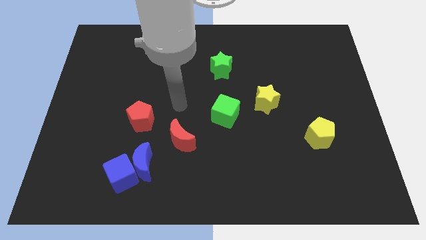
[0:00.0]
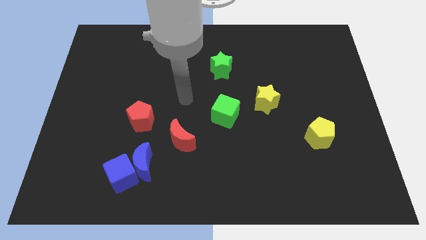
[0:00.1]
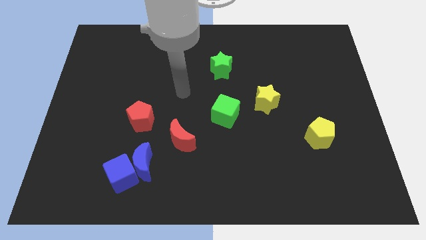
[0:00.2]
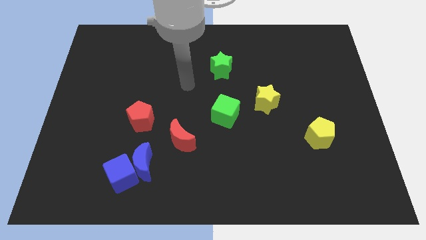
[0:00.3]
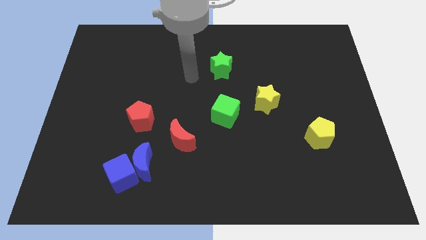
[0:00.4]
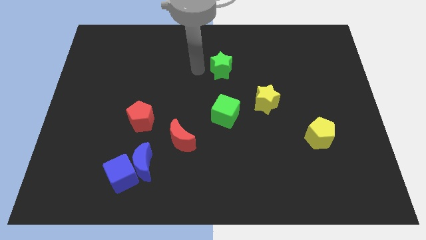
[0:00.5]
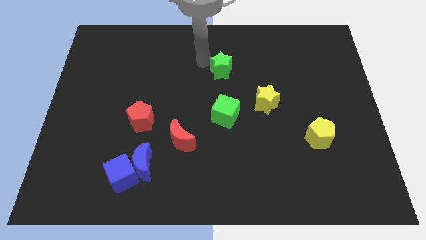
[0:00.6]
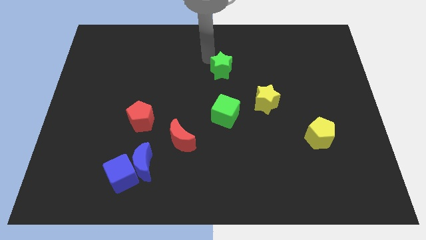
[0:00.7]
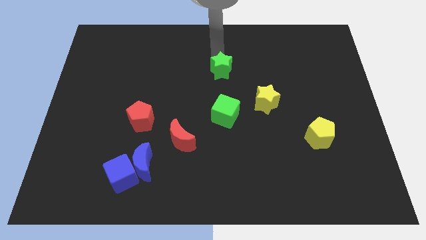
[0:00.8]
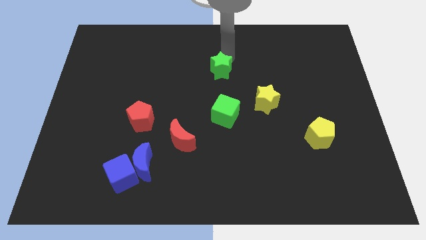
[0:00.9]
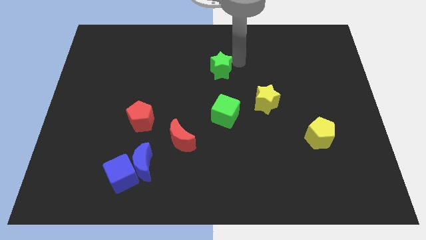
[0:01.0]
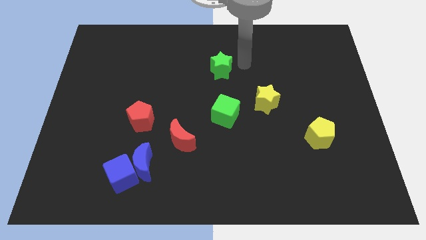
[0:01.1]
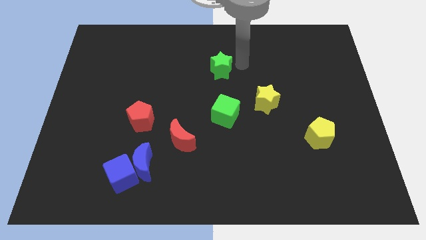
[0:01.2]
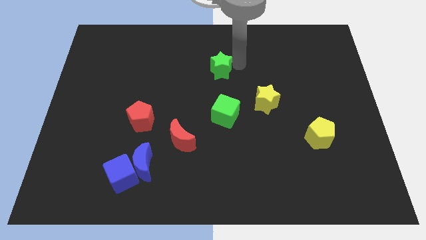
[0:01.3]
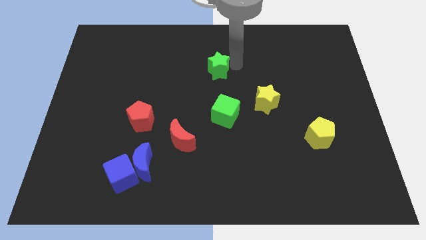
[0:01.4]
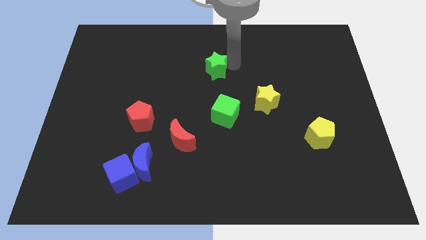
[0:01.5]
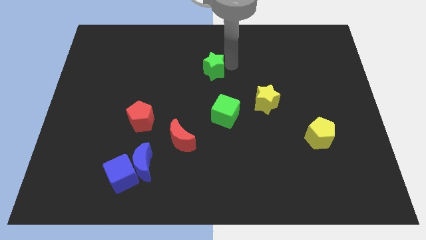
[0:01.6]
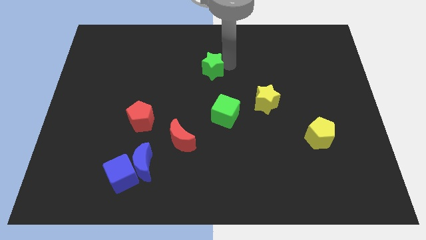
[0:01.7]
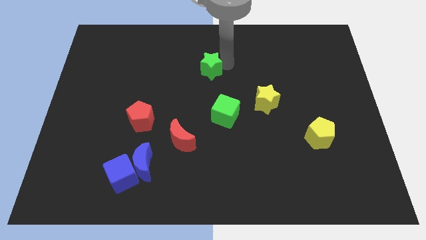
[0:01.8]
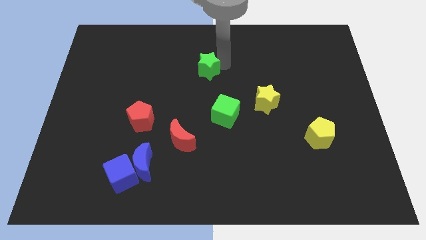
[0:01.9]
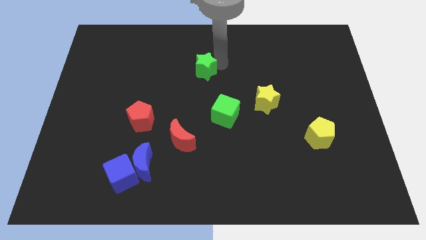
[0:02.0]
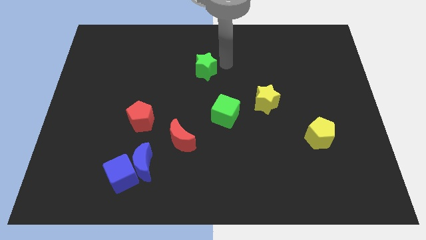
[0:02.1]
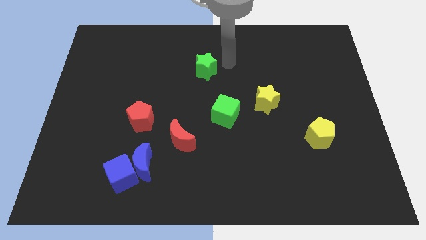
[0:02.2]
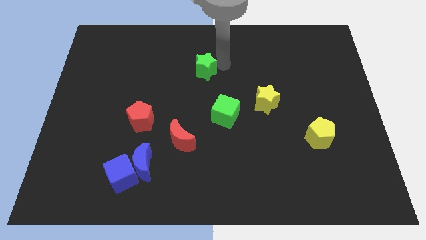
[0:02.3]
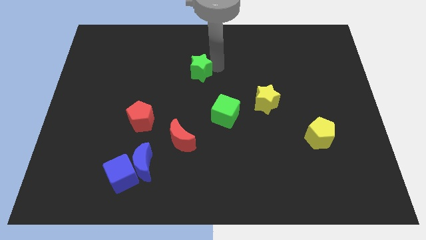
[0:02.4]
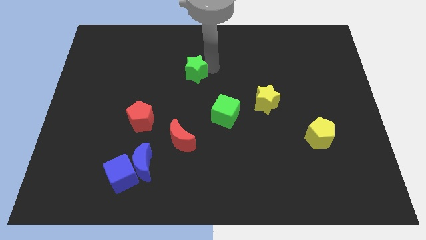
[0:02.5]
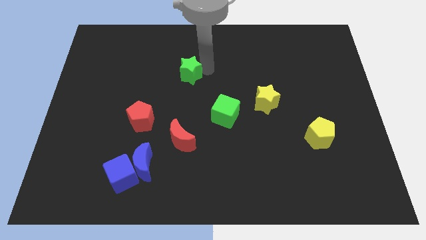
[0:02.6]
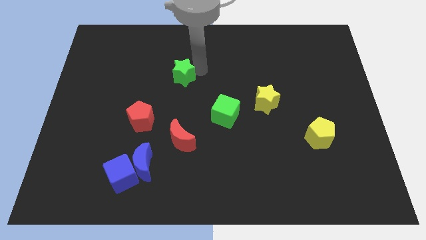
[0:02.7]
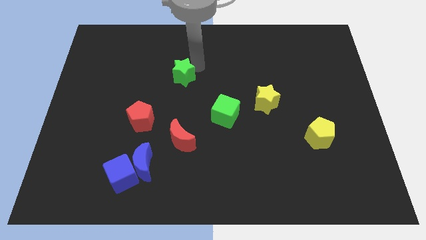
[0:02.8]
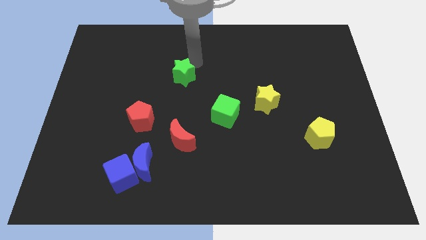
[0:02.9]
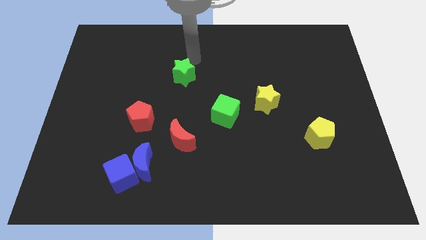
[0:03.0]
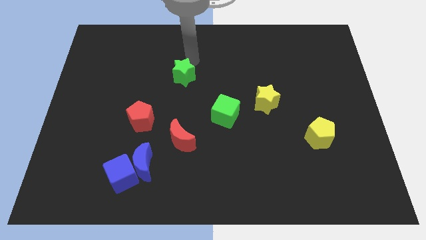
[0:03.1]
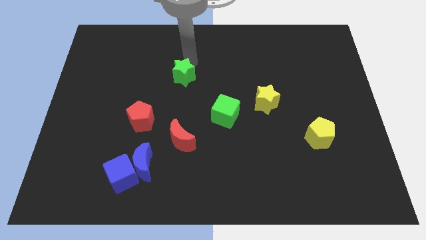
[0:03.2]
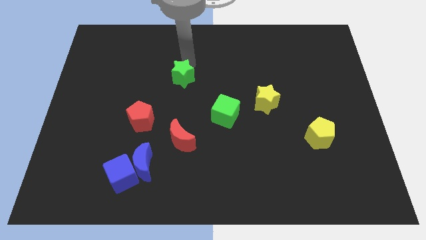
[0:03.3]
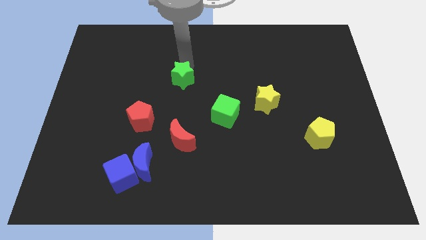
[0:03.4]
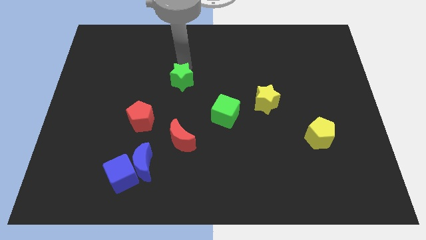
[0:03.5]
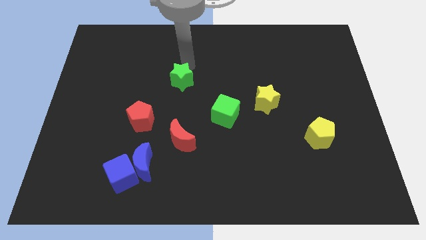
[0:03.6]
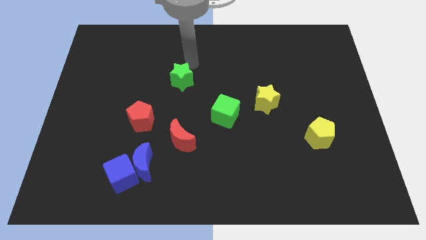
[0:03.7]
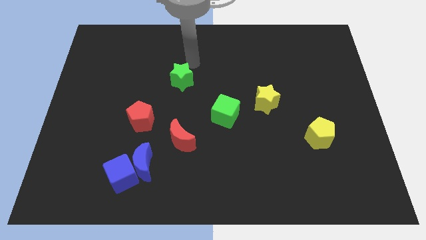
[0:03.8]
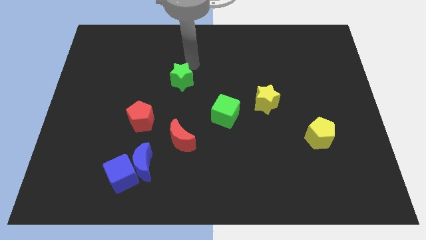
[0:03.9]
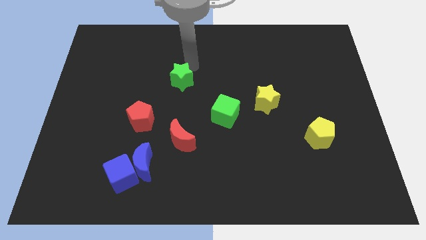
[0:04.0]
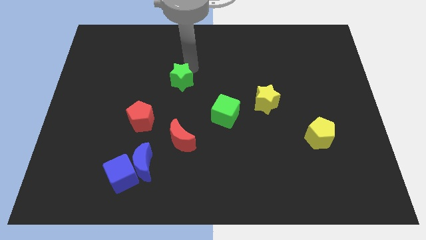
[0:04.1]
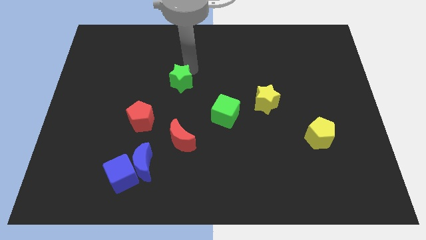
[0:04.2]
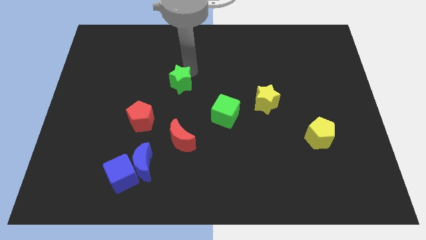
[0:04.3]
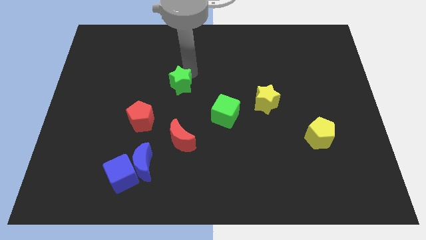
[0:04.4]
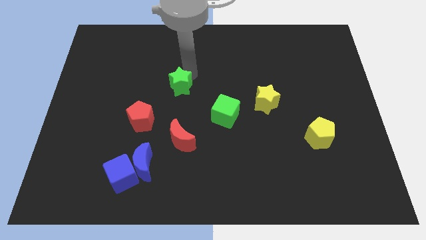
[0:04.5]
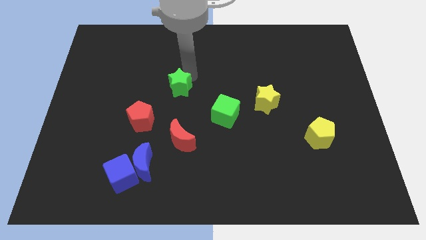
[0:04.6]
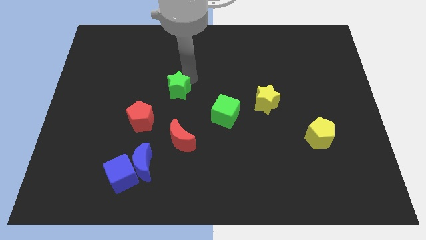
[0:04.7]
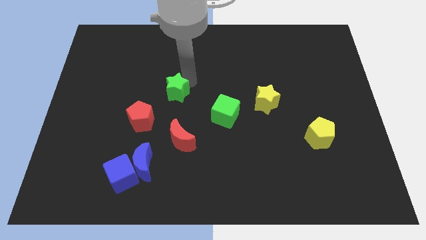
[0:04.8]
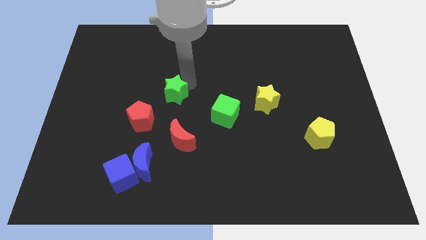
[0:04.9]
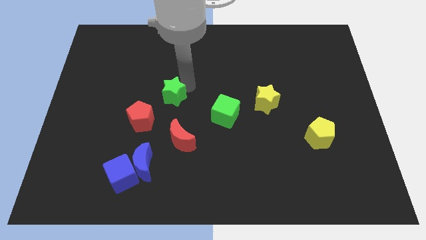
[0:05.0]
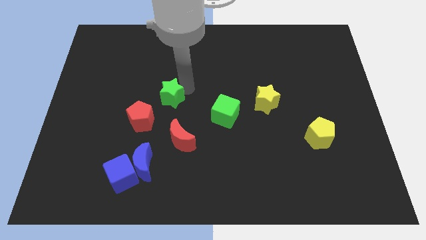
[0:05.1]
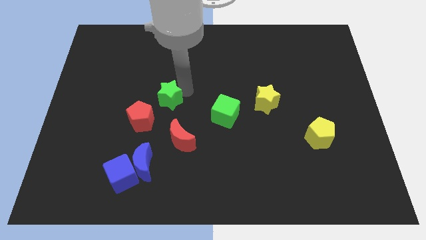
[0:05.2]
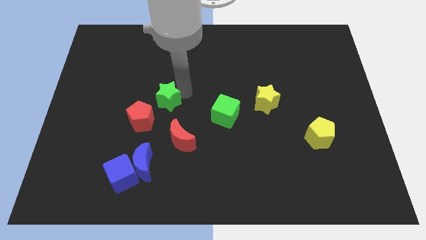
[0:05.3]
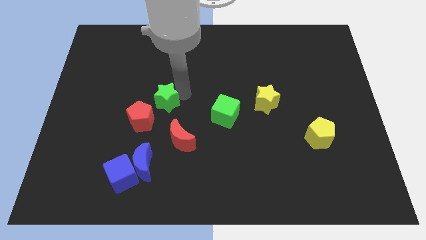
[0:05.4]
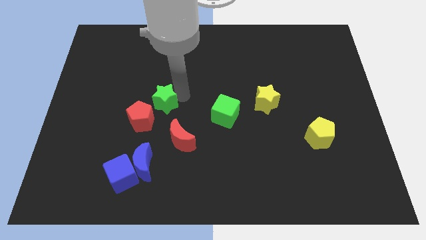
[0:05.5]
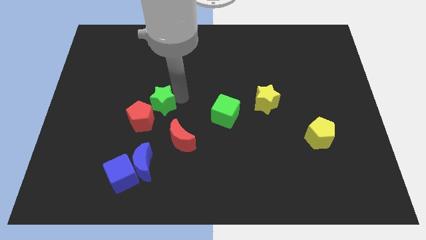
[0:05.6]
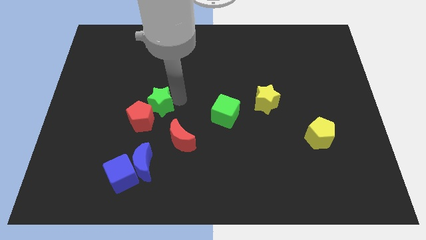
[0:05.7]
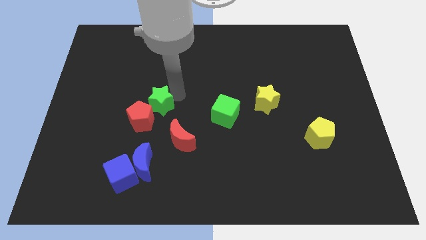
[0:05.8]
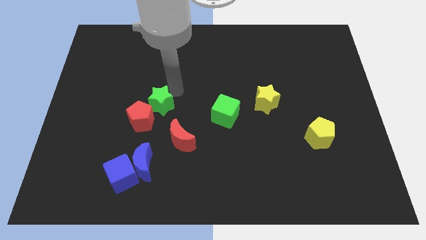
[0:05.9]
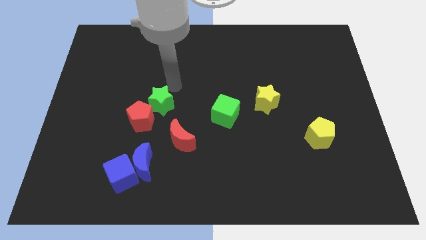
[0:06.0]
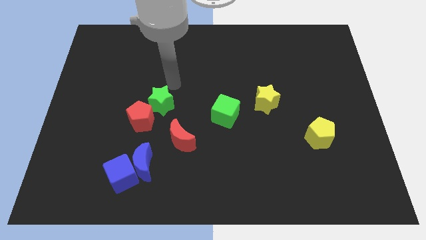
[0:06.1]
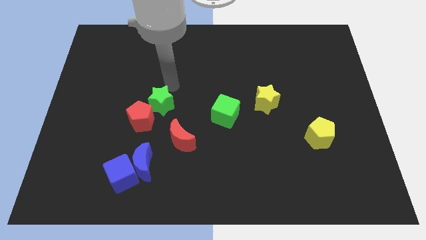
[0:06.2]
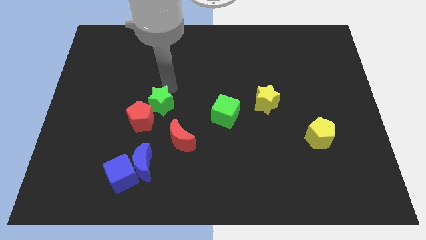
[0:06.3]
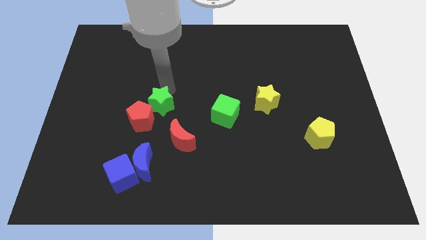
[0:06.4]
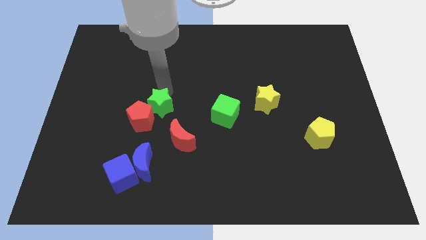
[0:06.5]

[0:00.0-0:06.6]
put the green star to the top side of the blue moon

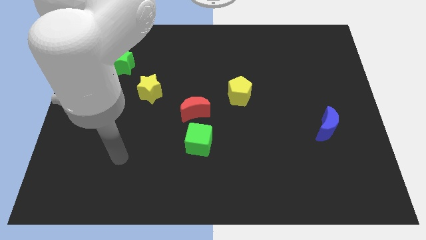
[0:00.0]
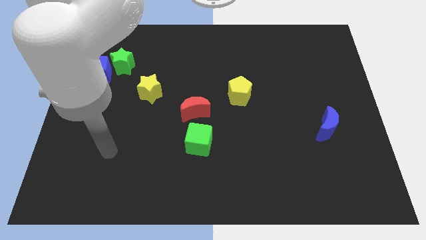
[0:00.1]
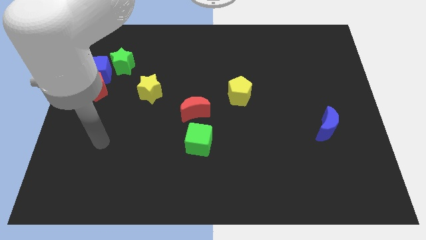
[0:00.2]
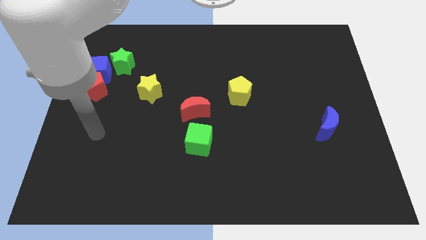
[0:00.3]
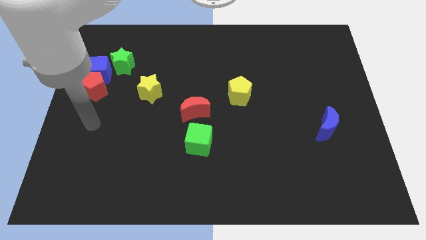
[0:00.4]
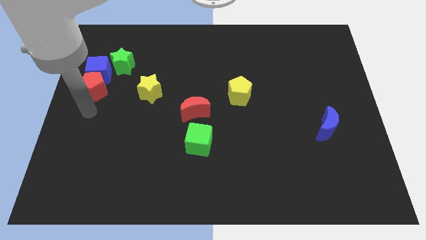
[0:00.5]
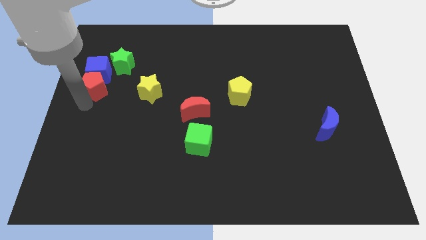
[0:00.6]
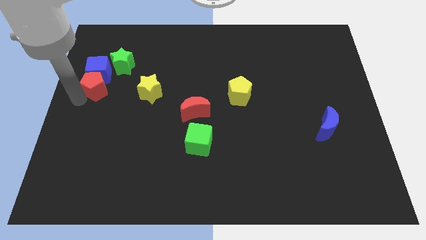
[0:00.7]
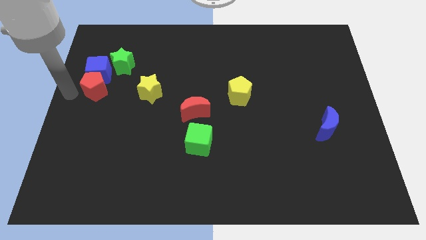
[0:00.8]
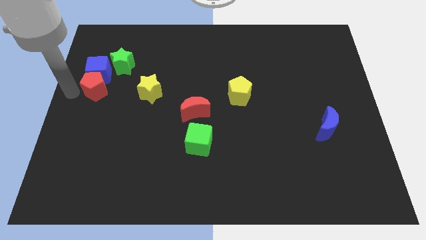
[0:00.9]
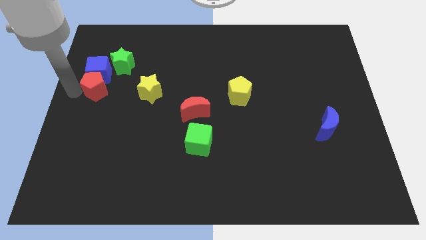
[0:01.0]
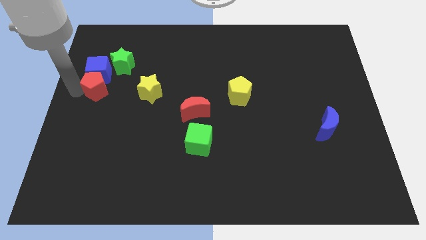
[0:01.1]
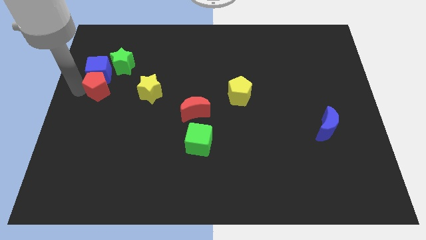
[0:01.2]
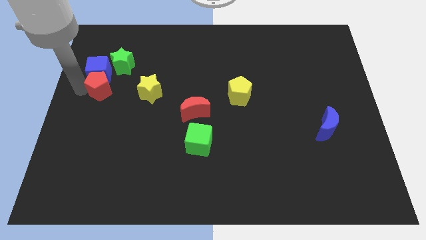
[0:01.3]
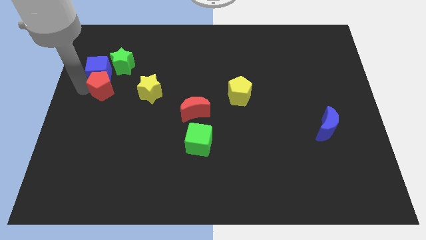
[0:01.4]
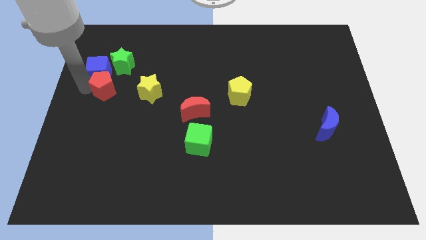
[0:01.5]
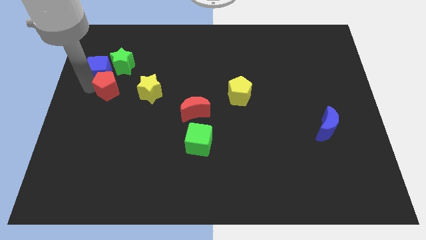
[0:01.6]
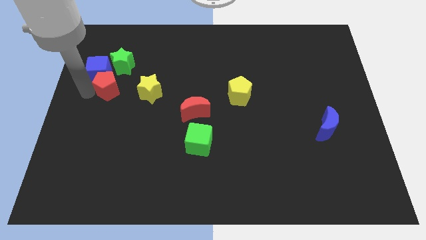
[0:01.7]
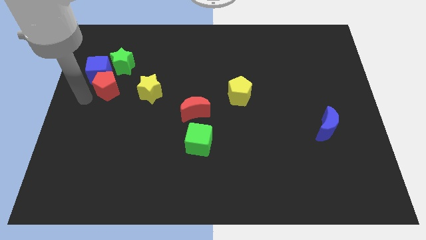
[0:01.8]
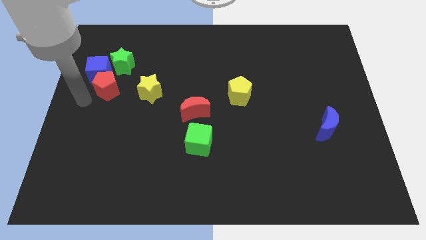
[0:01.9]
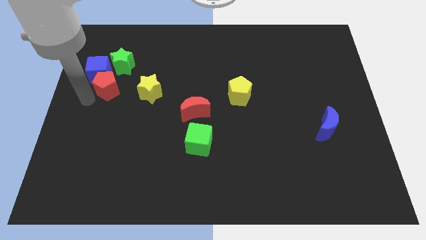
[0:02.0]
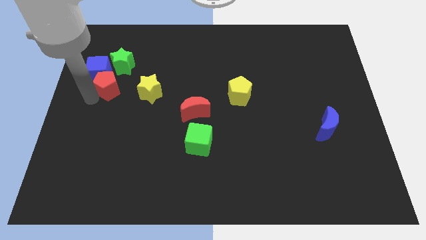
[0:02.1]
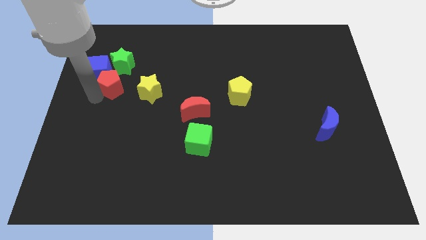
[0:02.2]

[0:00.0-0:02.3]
push the red pentagon right of the blue cube
